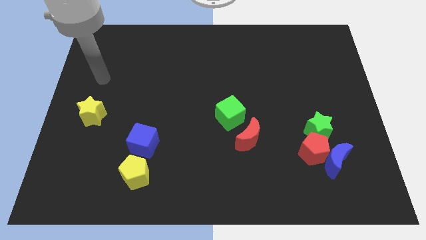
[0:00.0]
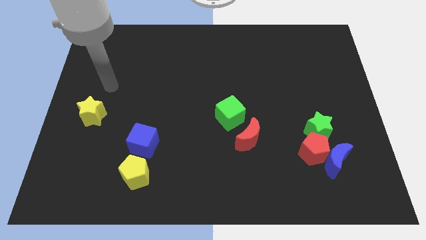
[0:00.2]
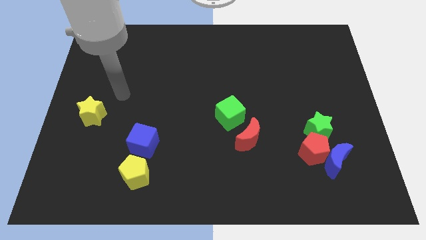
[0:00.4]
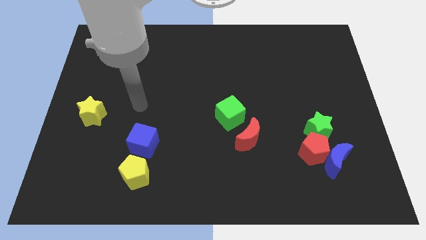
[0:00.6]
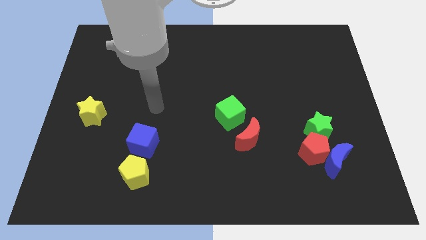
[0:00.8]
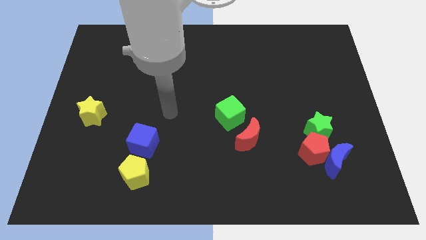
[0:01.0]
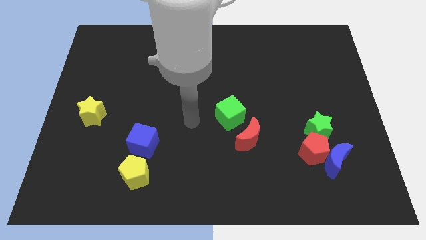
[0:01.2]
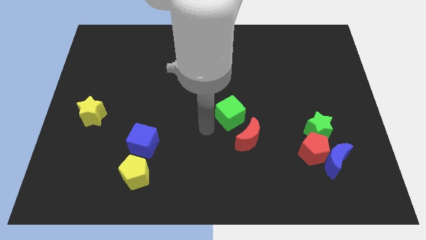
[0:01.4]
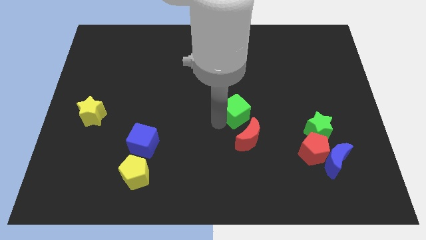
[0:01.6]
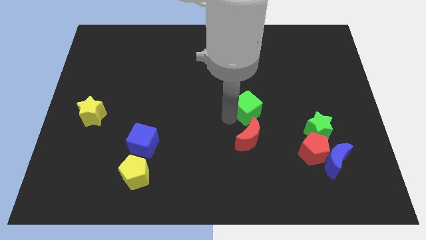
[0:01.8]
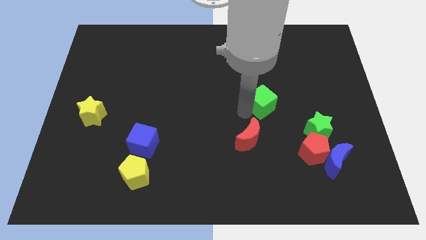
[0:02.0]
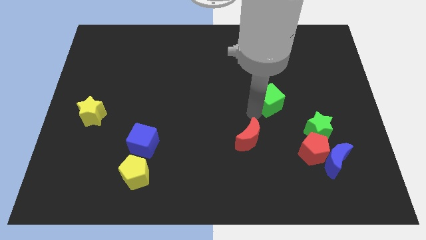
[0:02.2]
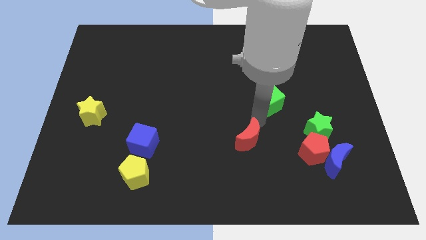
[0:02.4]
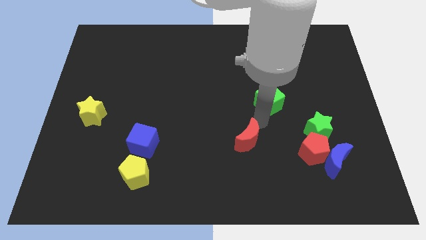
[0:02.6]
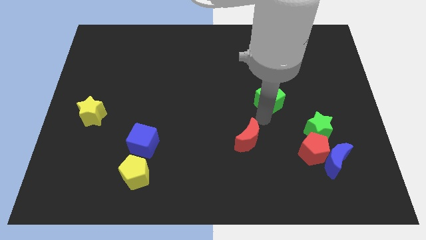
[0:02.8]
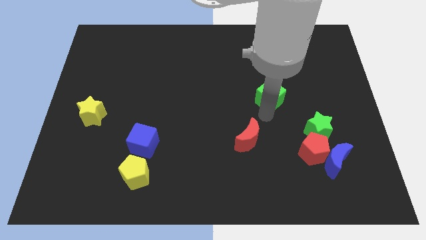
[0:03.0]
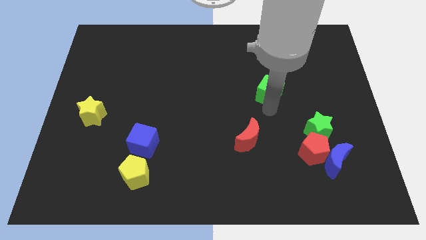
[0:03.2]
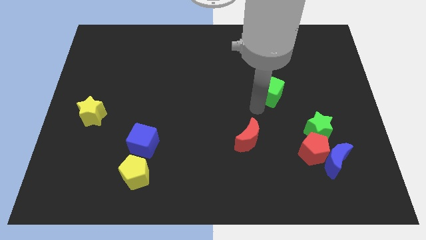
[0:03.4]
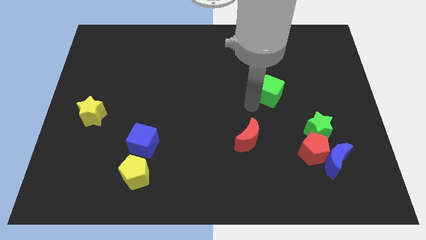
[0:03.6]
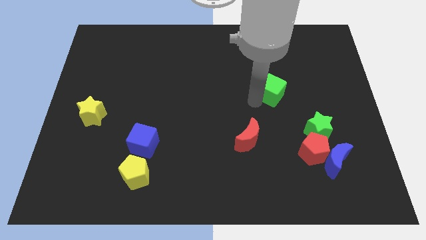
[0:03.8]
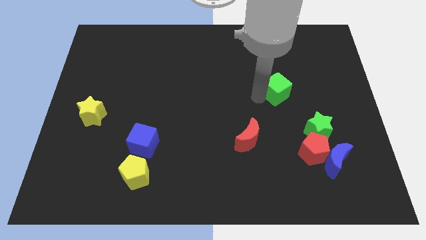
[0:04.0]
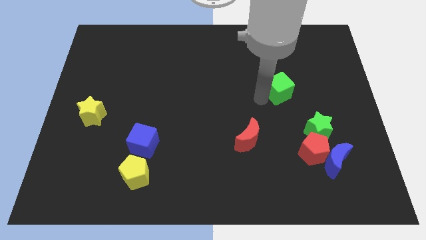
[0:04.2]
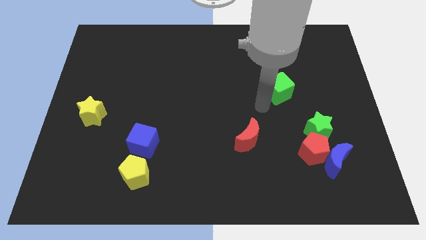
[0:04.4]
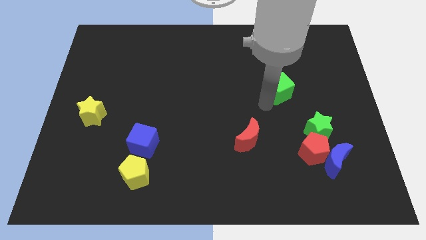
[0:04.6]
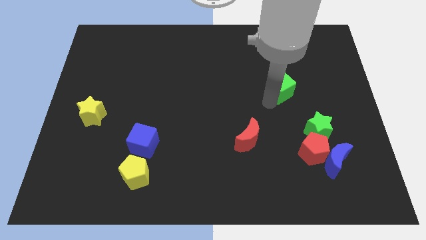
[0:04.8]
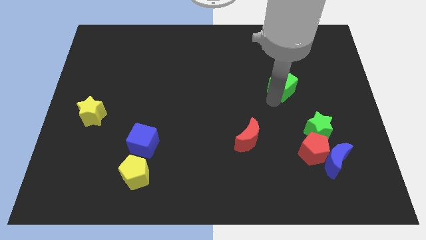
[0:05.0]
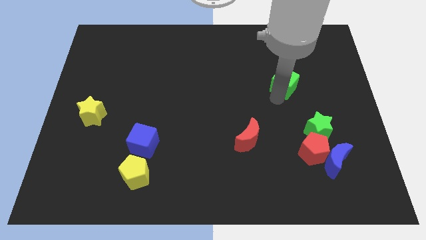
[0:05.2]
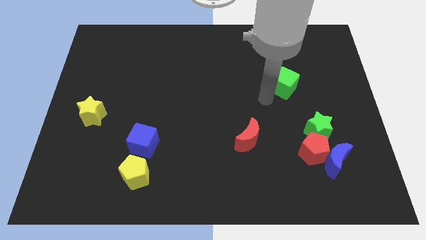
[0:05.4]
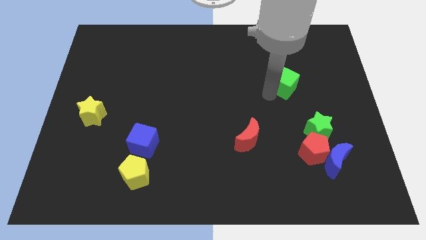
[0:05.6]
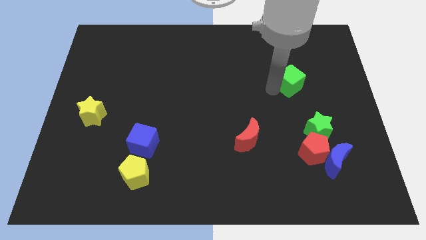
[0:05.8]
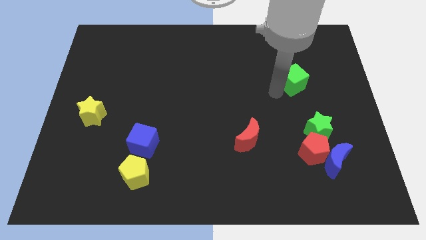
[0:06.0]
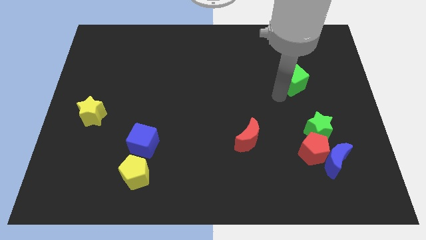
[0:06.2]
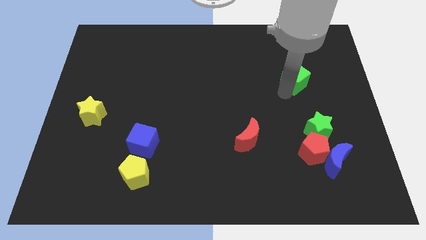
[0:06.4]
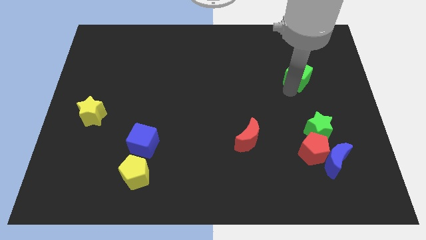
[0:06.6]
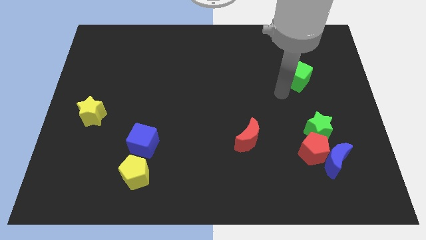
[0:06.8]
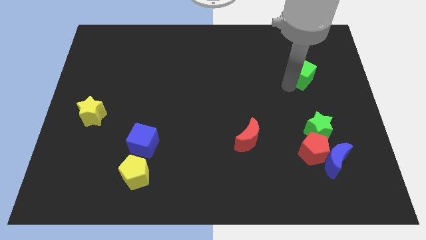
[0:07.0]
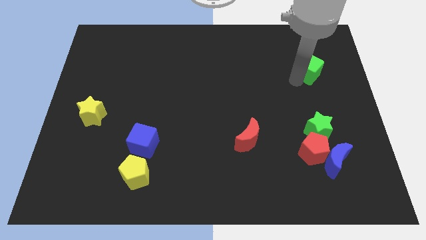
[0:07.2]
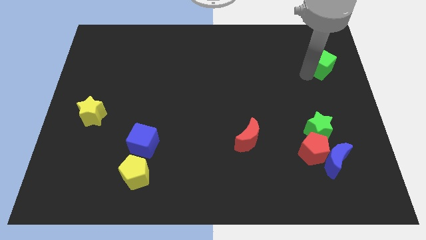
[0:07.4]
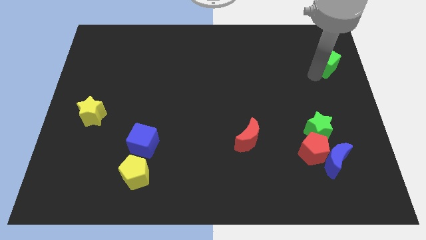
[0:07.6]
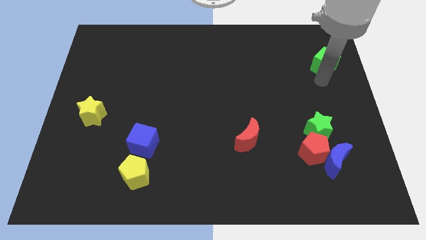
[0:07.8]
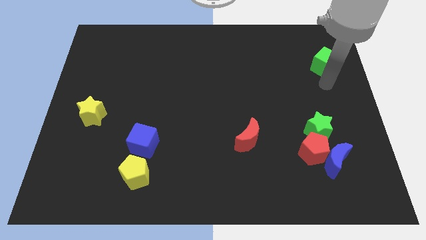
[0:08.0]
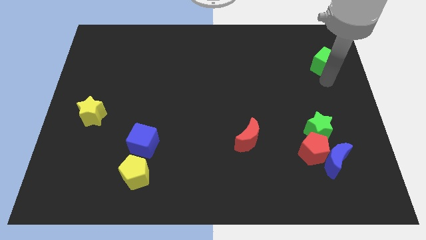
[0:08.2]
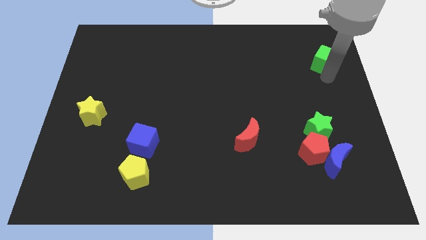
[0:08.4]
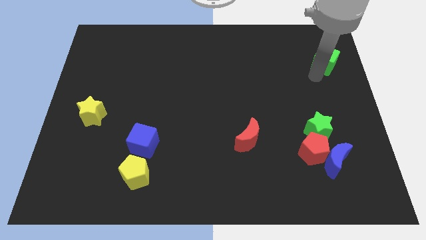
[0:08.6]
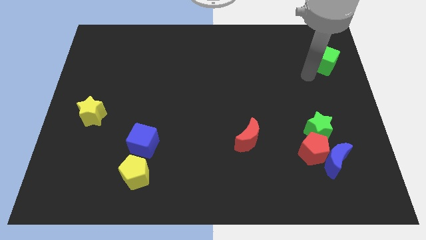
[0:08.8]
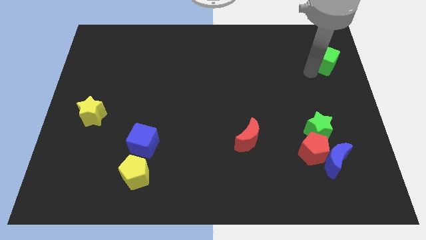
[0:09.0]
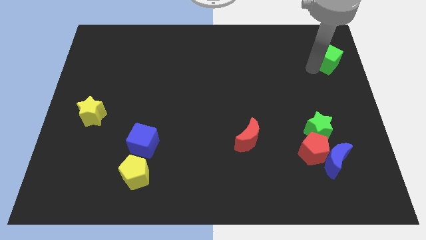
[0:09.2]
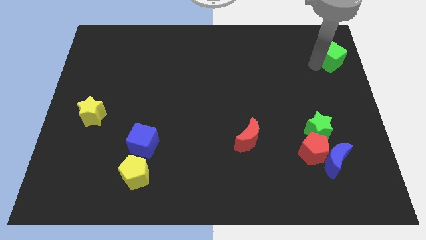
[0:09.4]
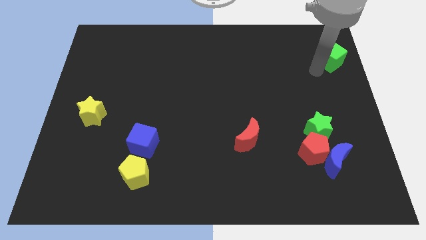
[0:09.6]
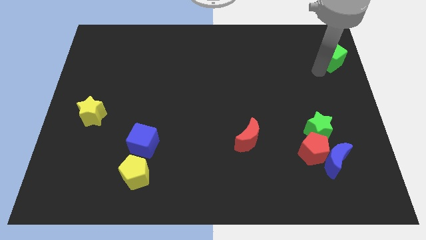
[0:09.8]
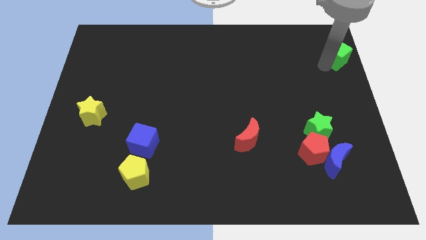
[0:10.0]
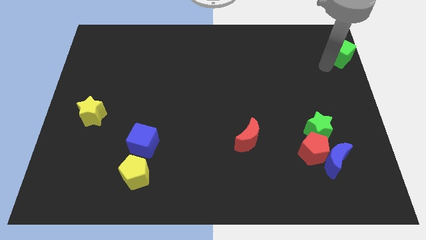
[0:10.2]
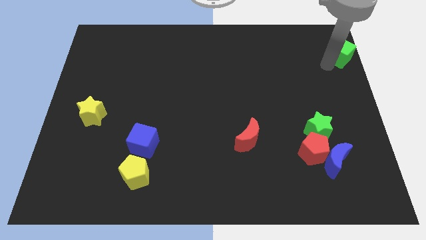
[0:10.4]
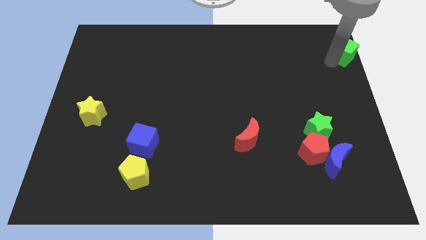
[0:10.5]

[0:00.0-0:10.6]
put the green cube to the top right corner

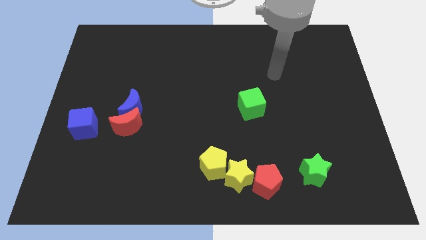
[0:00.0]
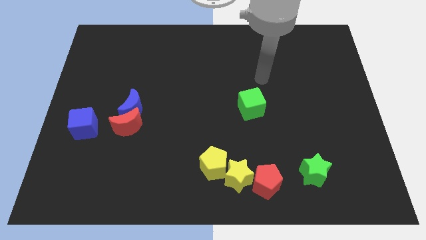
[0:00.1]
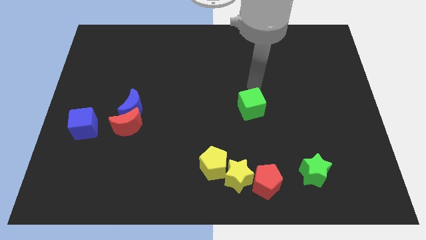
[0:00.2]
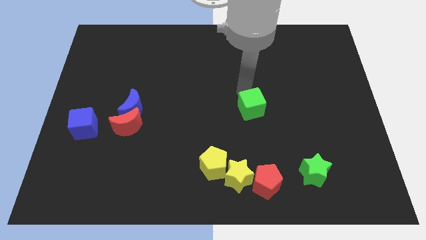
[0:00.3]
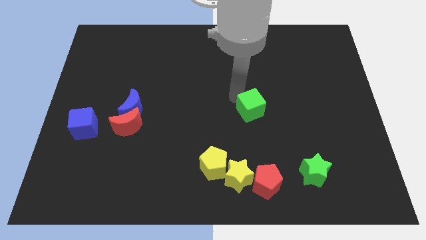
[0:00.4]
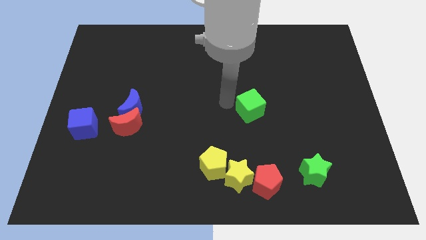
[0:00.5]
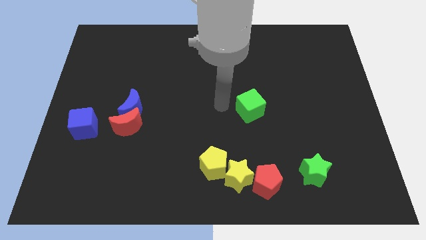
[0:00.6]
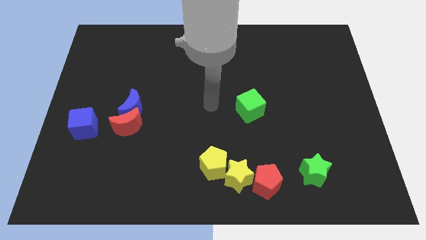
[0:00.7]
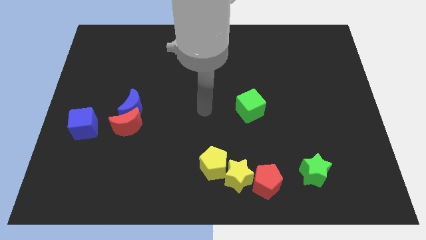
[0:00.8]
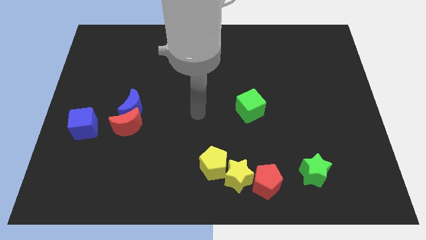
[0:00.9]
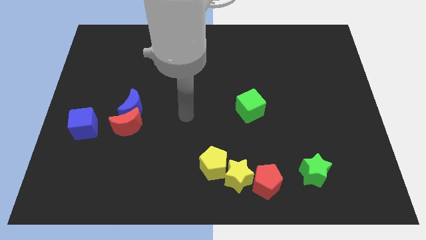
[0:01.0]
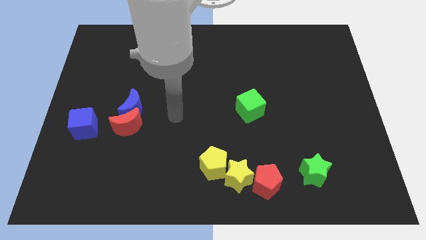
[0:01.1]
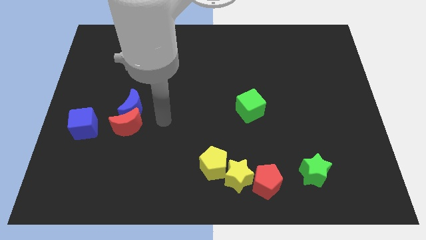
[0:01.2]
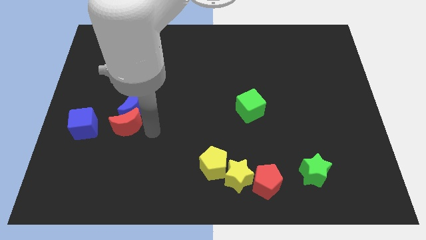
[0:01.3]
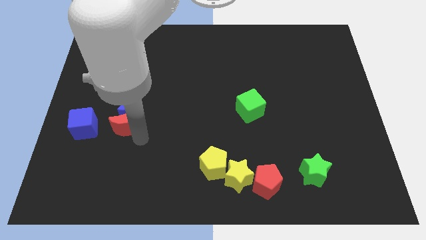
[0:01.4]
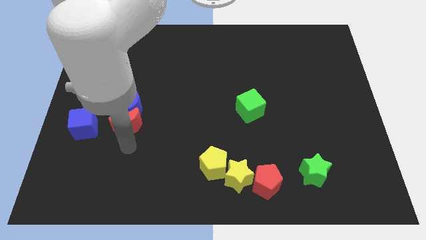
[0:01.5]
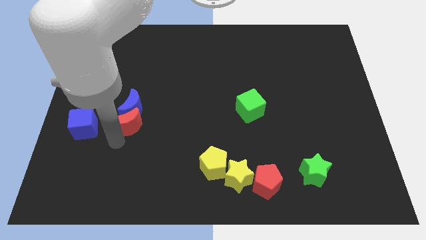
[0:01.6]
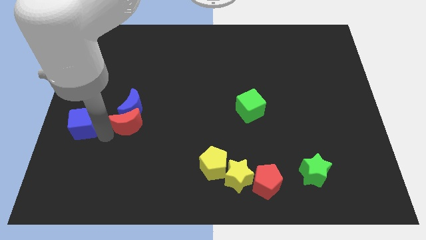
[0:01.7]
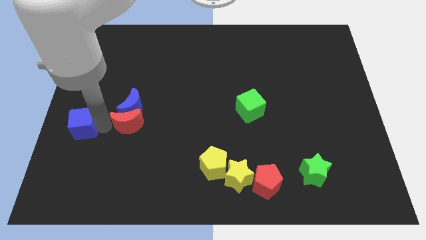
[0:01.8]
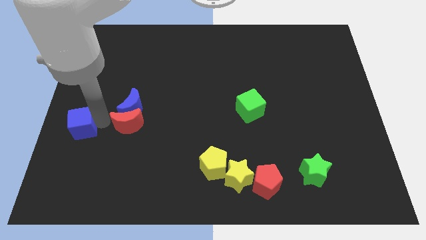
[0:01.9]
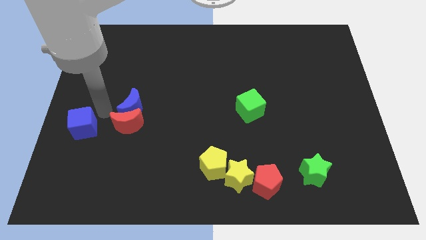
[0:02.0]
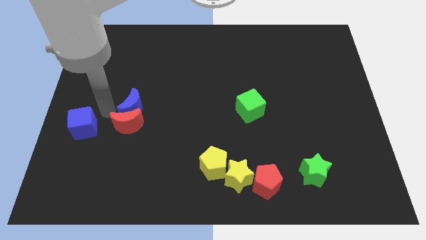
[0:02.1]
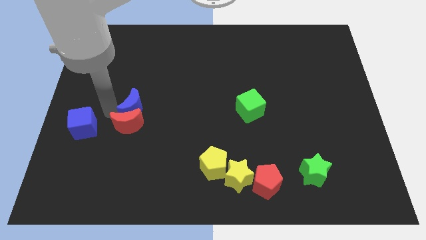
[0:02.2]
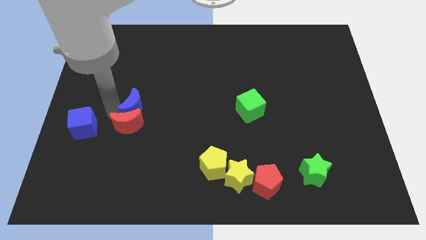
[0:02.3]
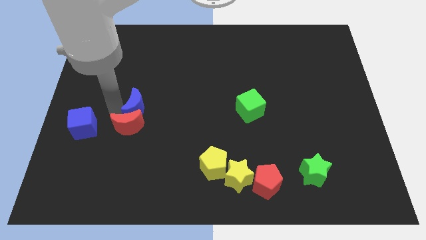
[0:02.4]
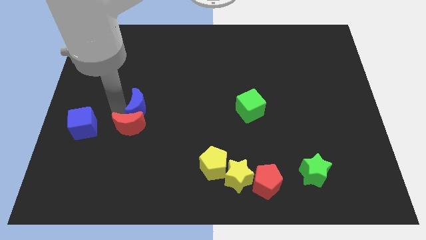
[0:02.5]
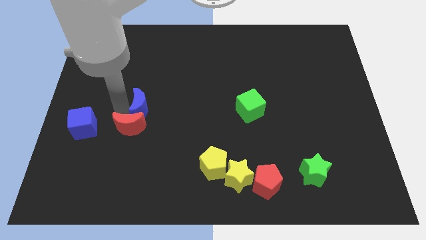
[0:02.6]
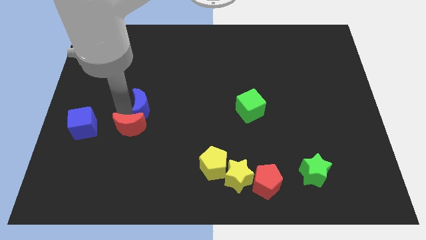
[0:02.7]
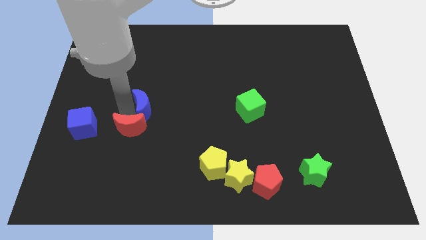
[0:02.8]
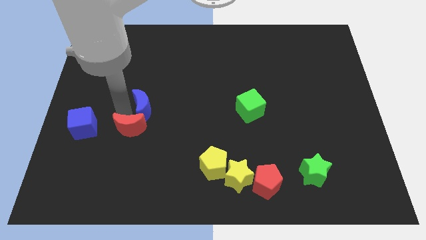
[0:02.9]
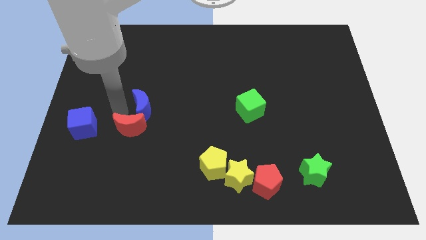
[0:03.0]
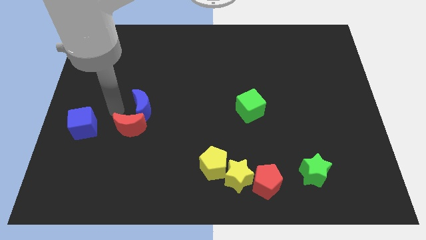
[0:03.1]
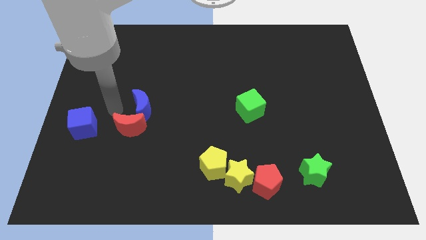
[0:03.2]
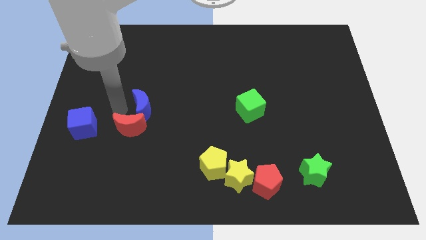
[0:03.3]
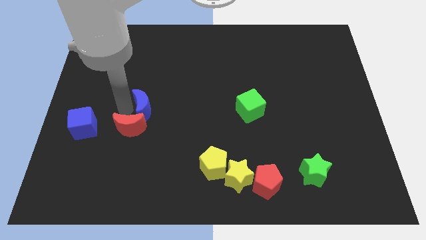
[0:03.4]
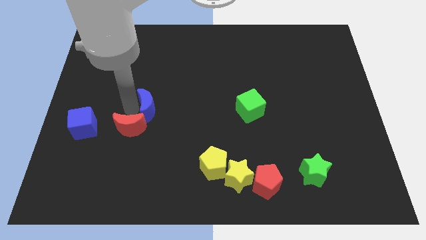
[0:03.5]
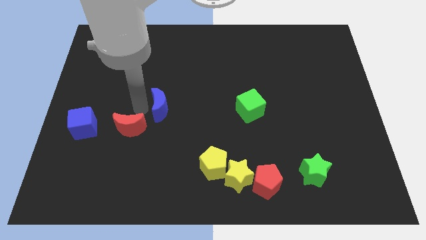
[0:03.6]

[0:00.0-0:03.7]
put the blue moon to the center
